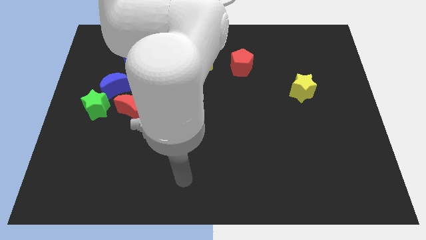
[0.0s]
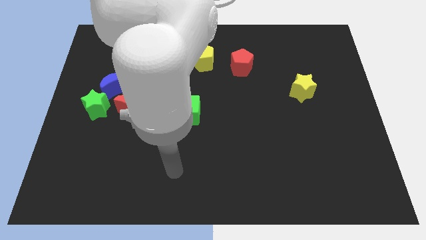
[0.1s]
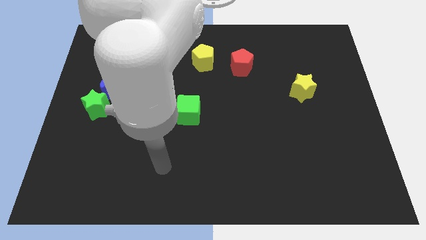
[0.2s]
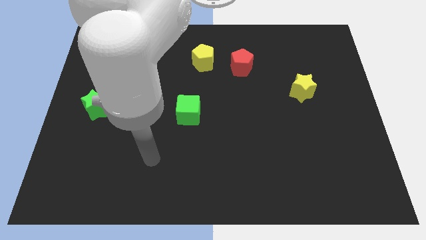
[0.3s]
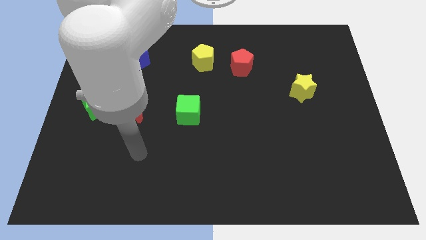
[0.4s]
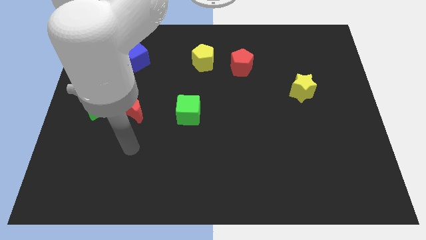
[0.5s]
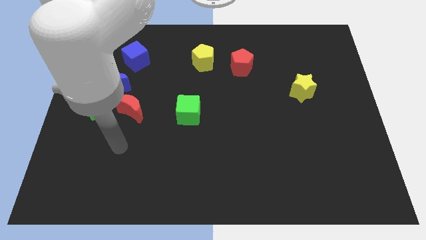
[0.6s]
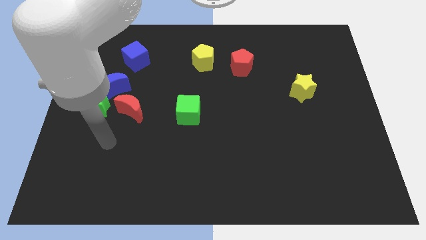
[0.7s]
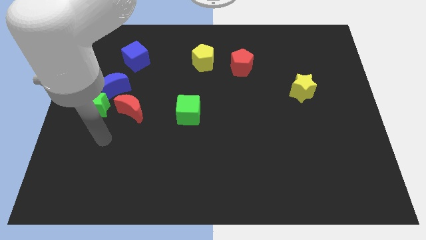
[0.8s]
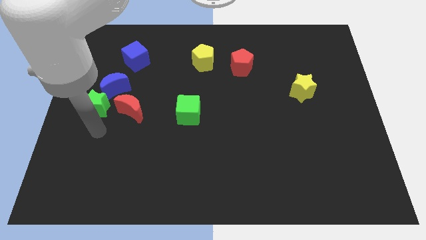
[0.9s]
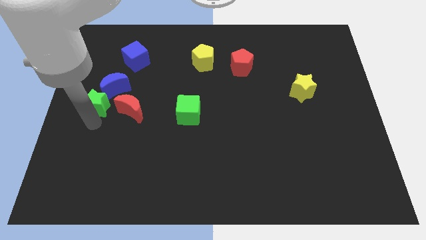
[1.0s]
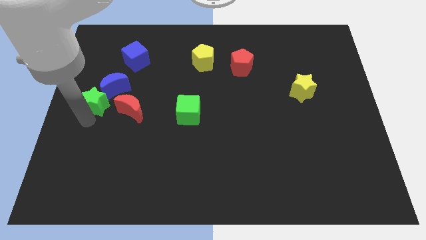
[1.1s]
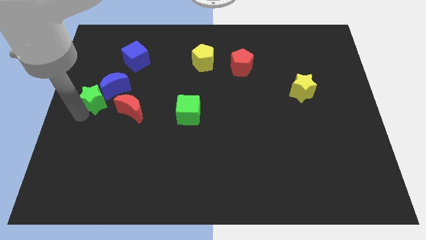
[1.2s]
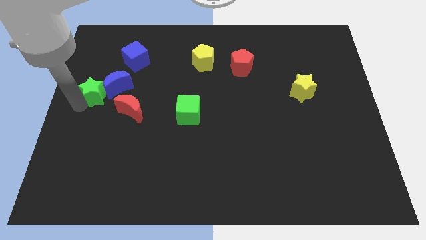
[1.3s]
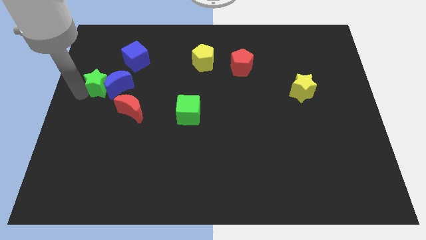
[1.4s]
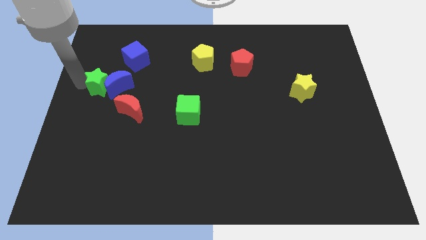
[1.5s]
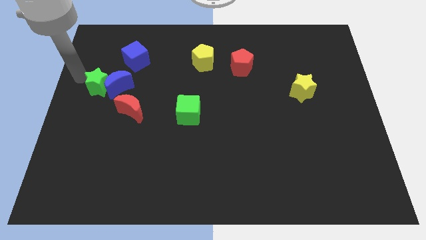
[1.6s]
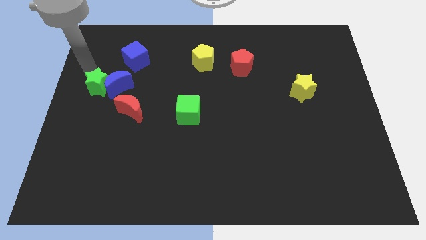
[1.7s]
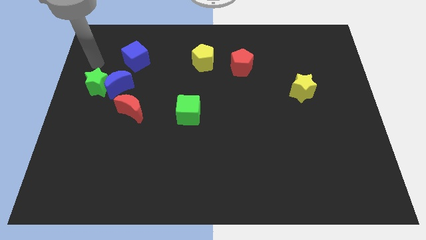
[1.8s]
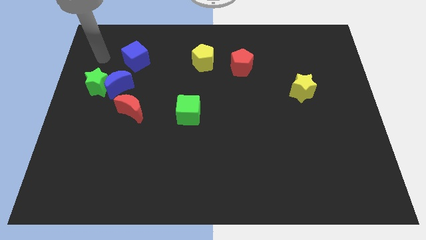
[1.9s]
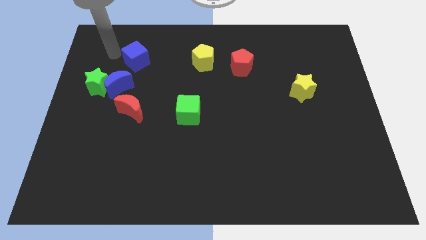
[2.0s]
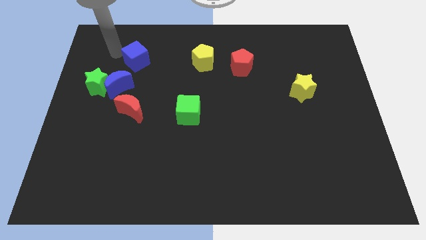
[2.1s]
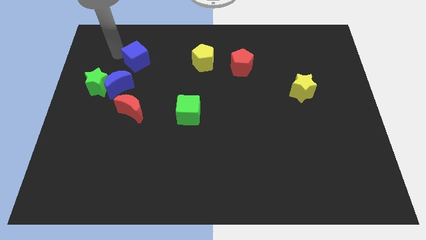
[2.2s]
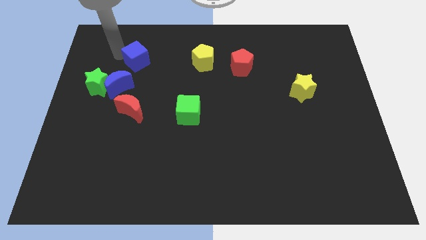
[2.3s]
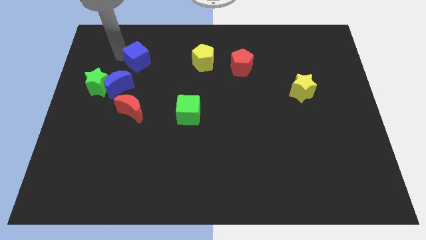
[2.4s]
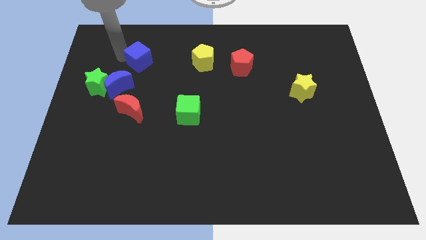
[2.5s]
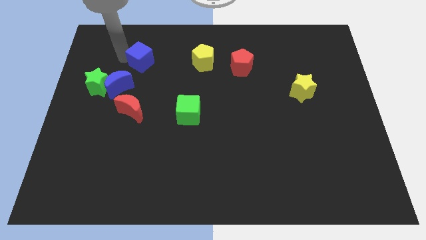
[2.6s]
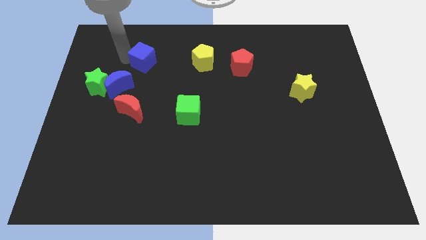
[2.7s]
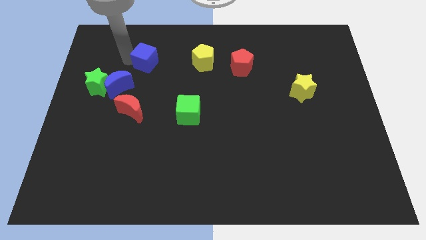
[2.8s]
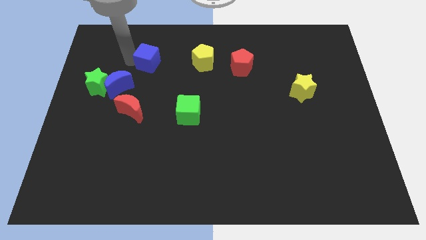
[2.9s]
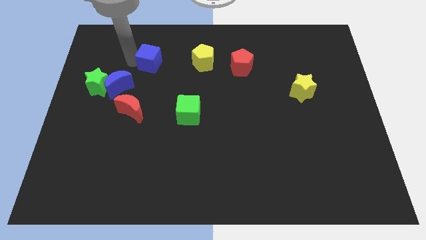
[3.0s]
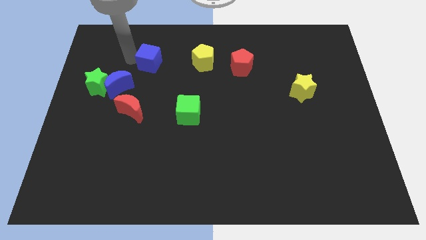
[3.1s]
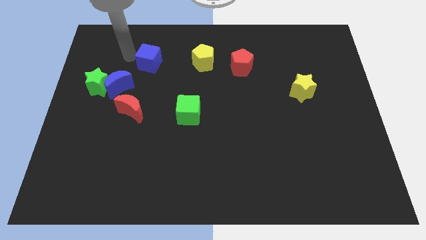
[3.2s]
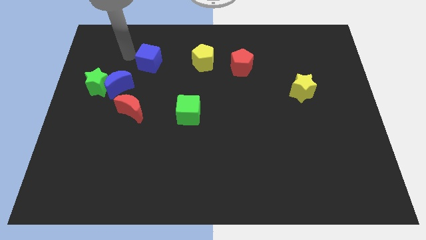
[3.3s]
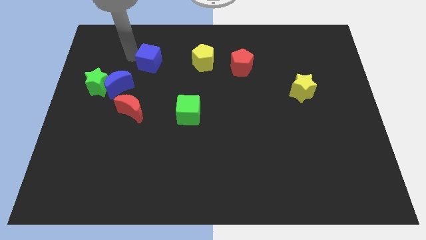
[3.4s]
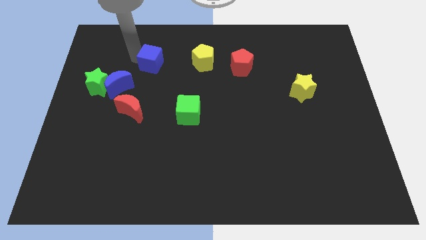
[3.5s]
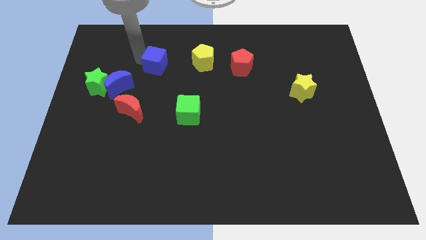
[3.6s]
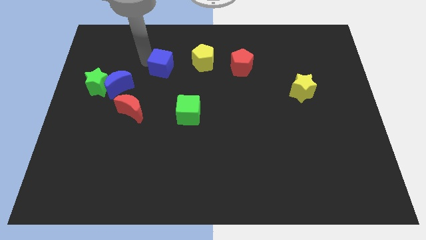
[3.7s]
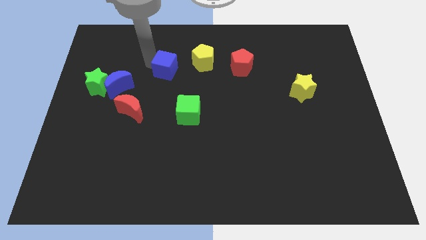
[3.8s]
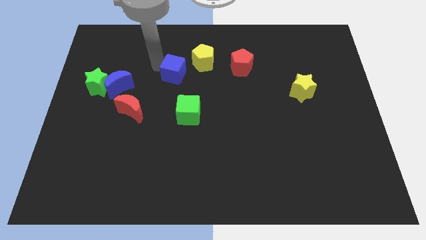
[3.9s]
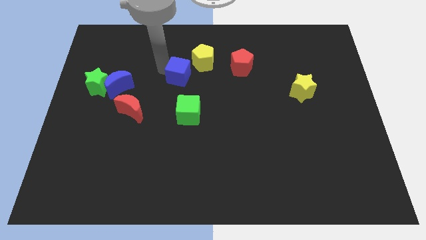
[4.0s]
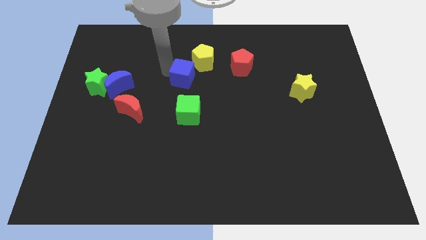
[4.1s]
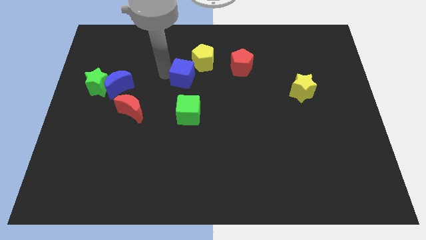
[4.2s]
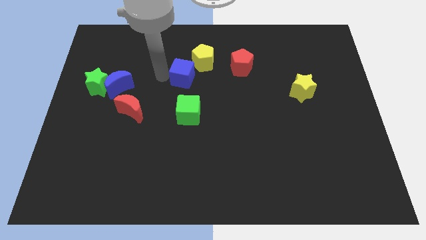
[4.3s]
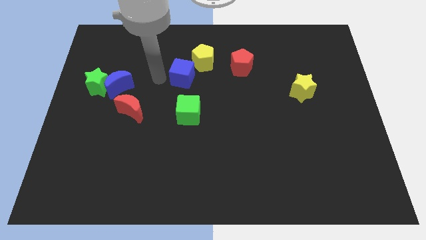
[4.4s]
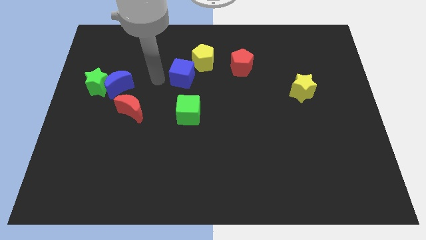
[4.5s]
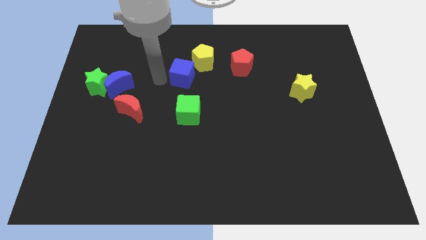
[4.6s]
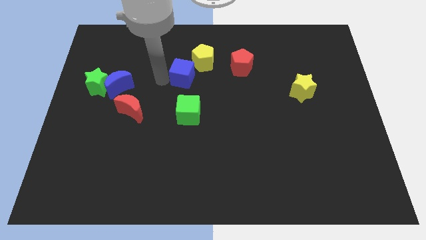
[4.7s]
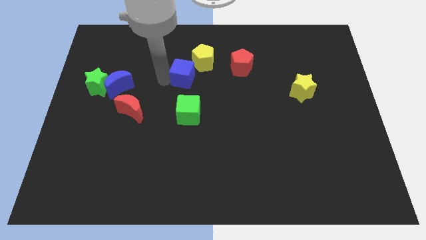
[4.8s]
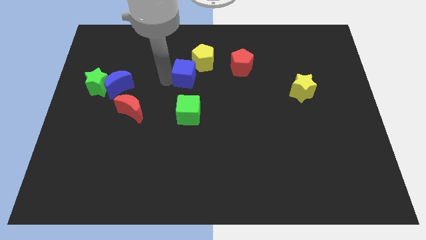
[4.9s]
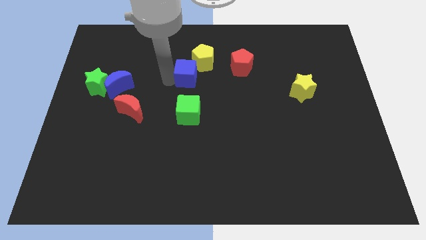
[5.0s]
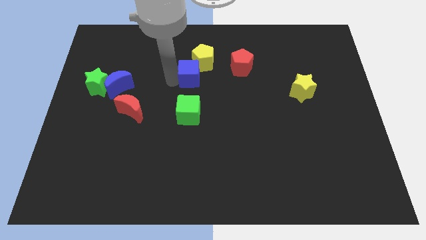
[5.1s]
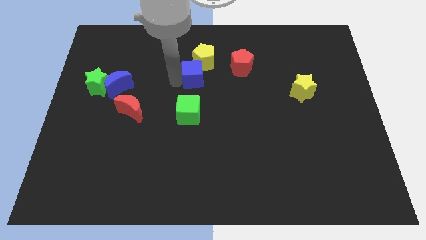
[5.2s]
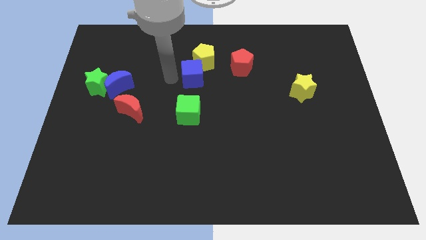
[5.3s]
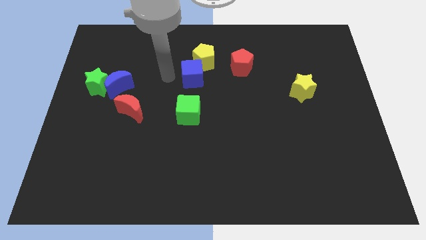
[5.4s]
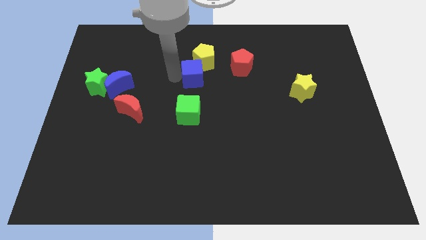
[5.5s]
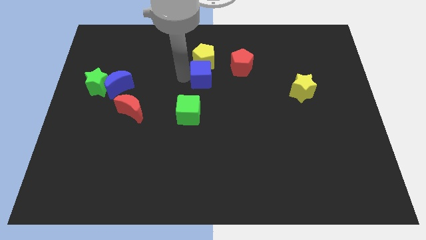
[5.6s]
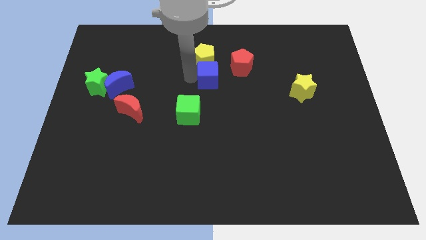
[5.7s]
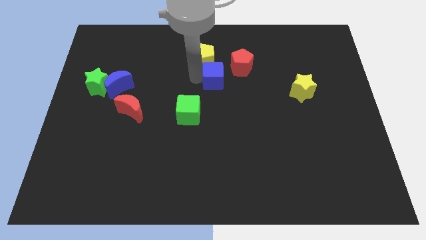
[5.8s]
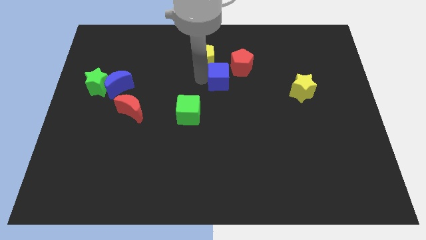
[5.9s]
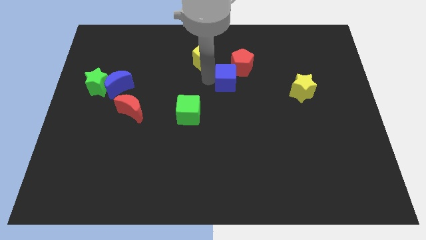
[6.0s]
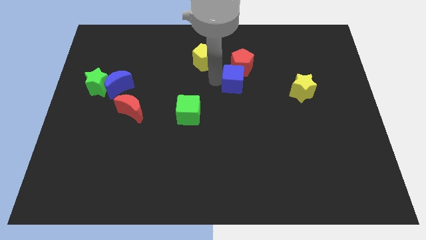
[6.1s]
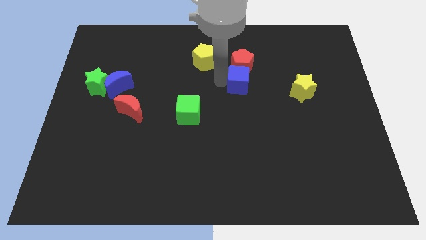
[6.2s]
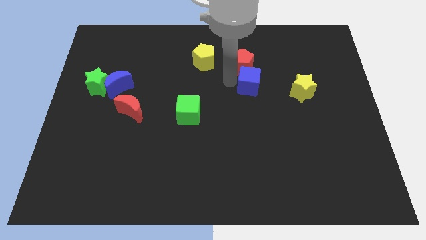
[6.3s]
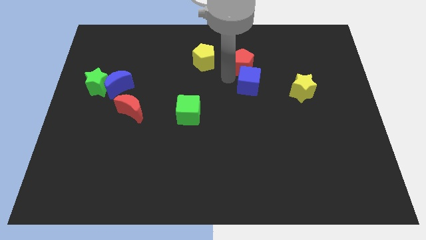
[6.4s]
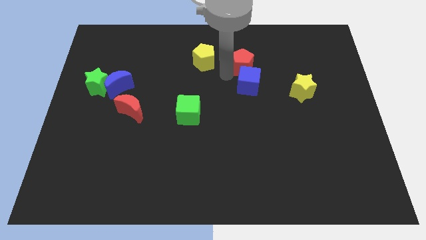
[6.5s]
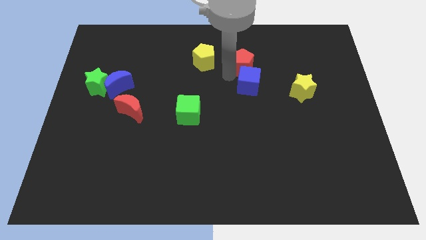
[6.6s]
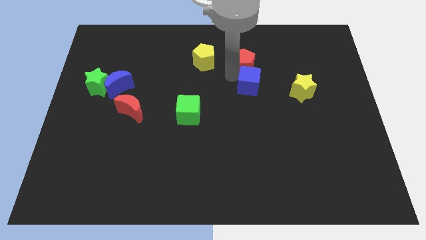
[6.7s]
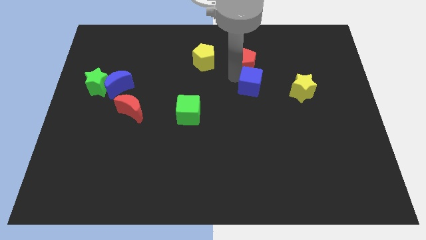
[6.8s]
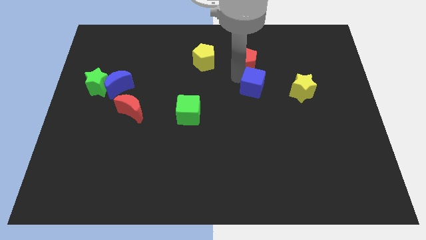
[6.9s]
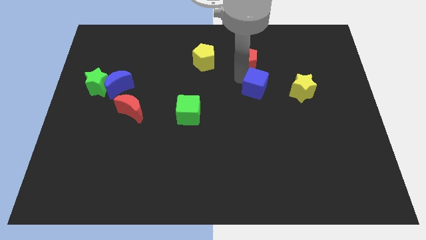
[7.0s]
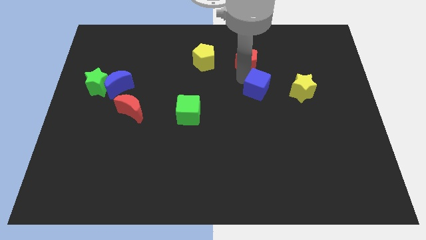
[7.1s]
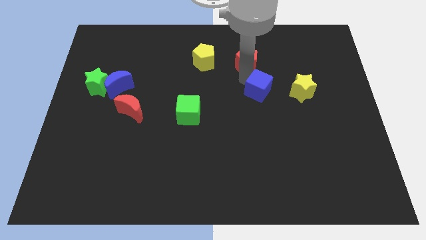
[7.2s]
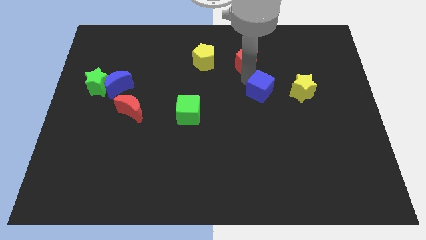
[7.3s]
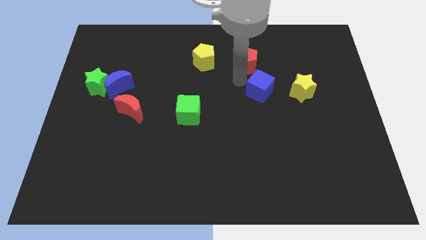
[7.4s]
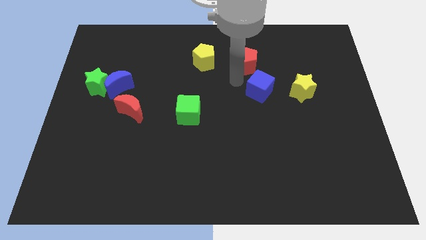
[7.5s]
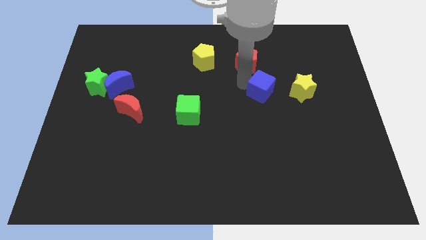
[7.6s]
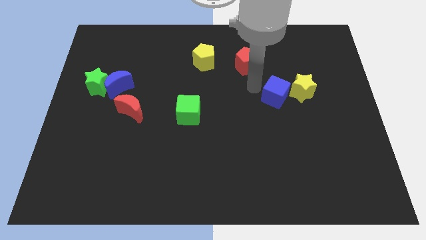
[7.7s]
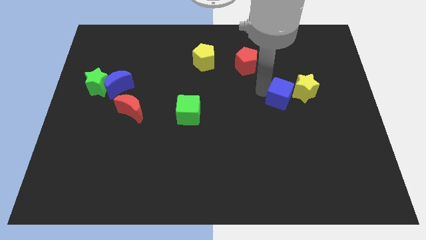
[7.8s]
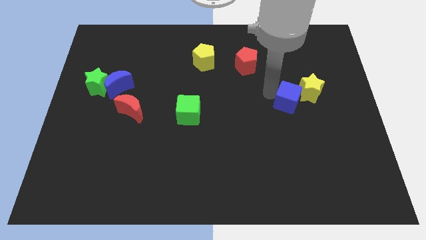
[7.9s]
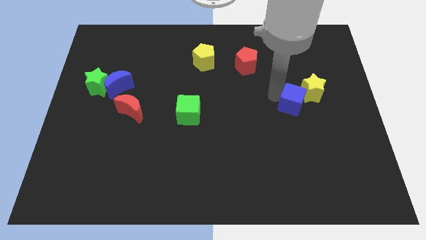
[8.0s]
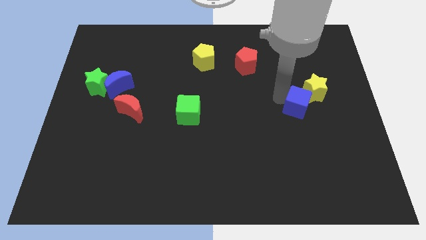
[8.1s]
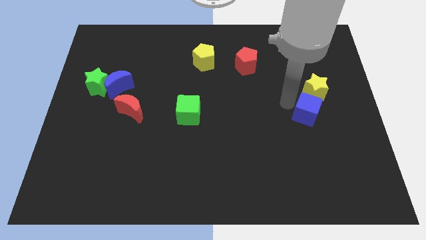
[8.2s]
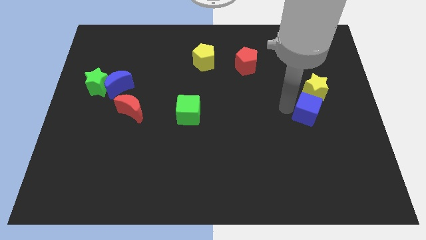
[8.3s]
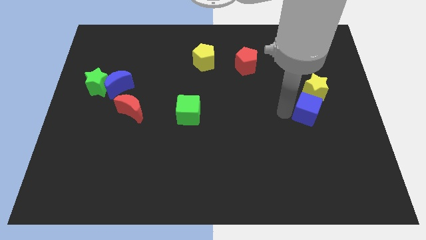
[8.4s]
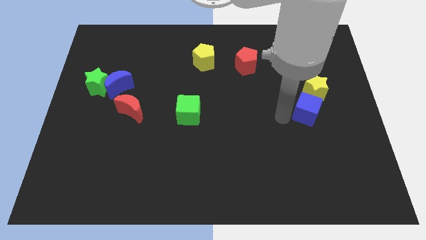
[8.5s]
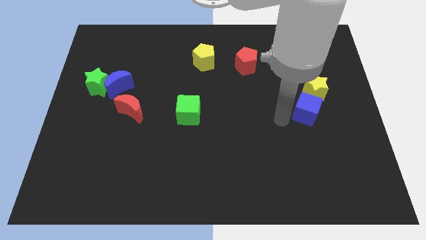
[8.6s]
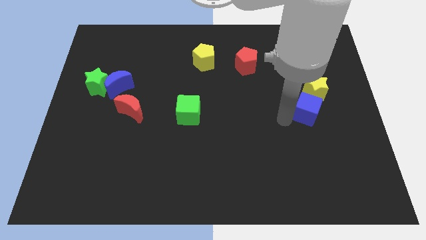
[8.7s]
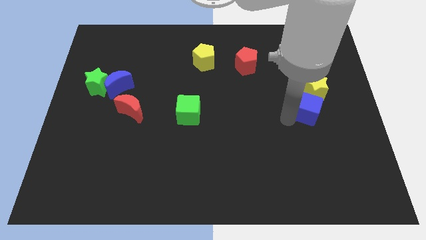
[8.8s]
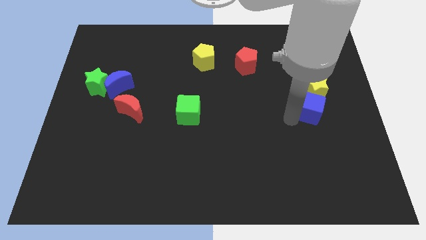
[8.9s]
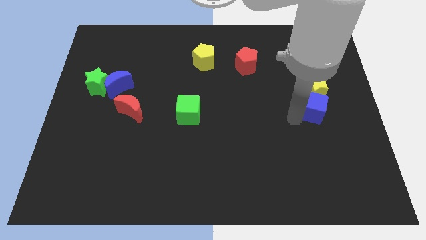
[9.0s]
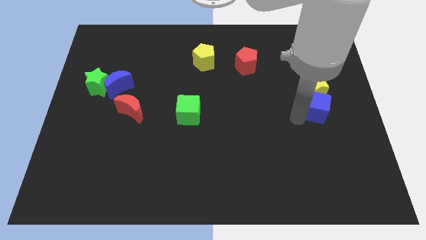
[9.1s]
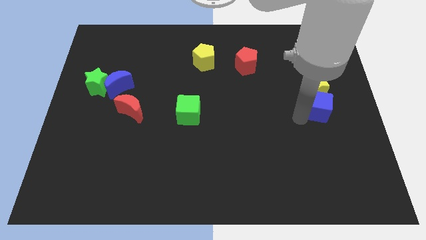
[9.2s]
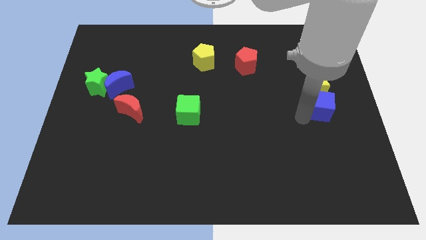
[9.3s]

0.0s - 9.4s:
push the blue cube to the right side of the board
